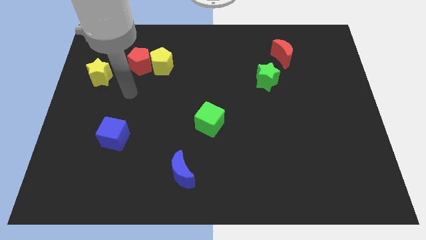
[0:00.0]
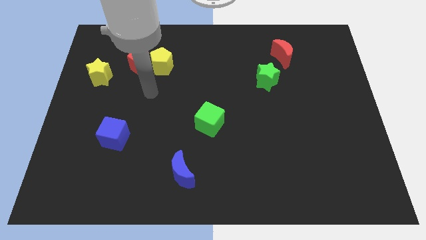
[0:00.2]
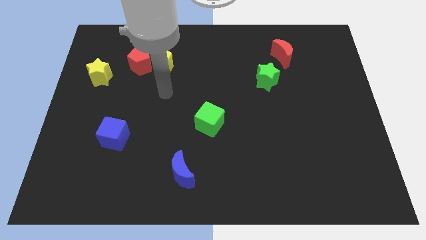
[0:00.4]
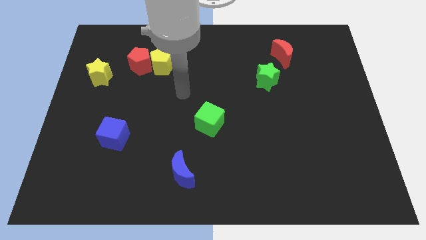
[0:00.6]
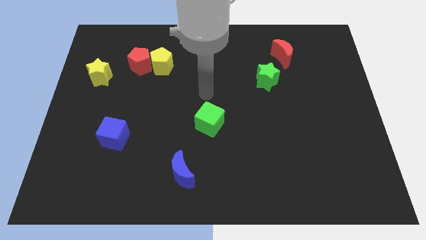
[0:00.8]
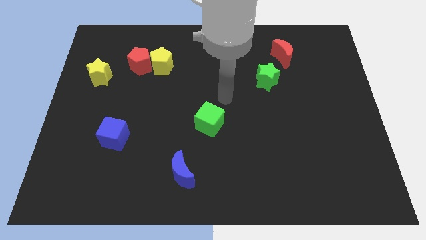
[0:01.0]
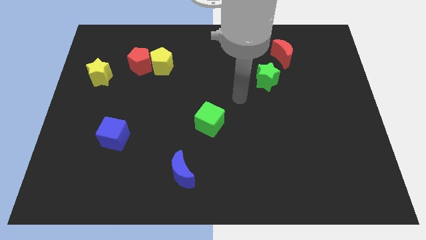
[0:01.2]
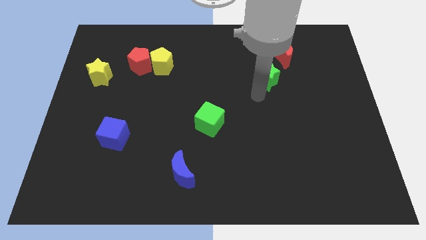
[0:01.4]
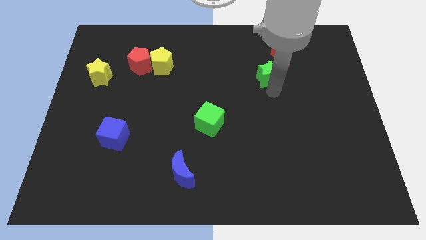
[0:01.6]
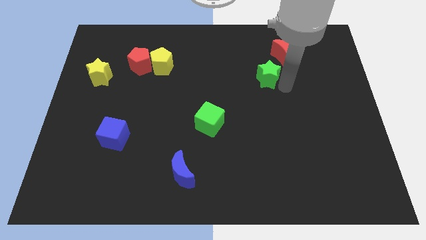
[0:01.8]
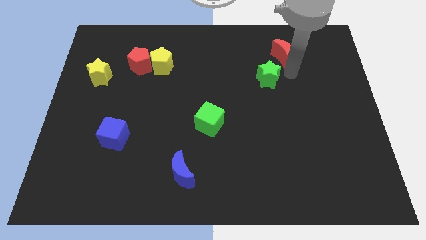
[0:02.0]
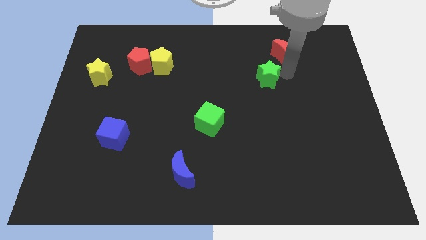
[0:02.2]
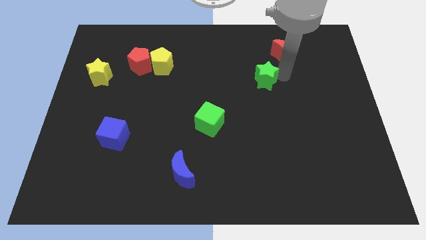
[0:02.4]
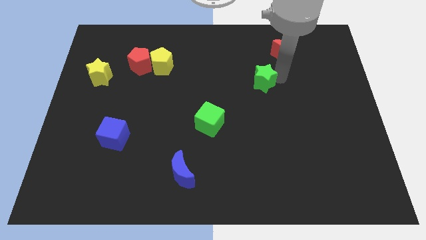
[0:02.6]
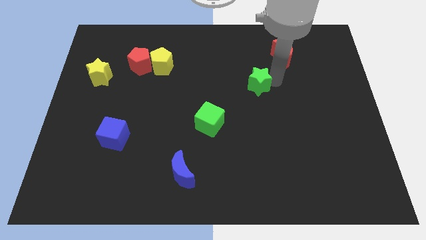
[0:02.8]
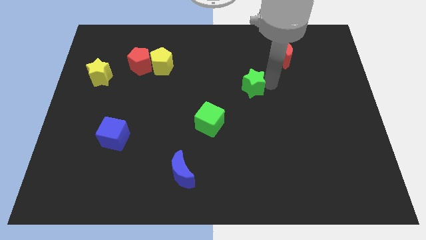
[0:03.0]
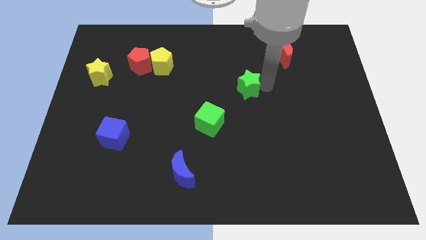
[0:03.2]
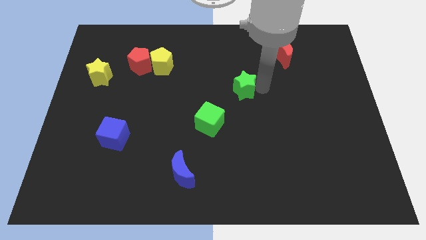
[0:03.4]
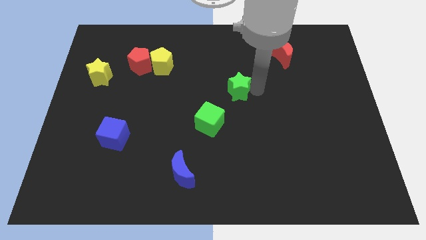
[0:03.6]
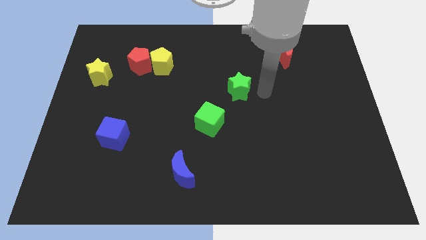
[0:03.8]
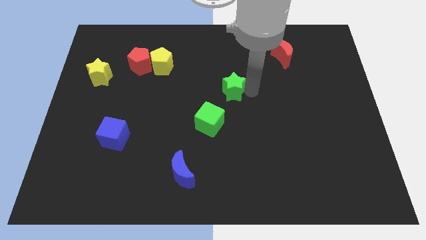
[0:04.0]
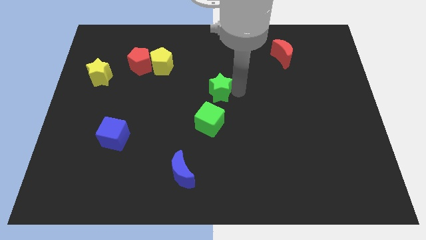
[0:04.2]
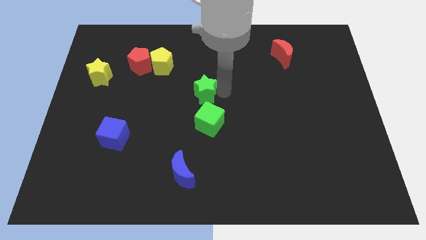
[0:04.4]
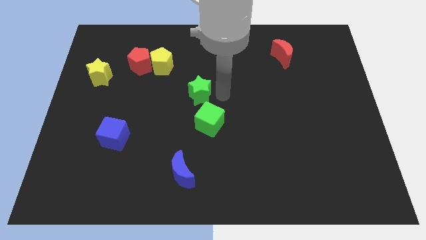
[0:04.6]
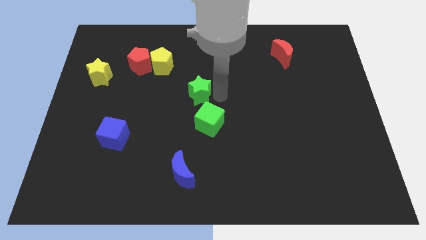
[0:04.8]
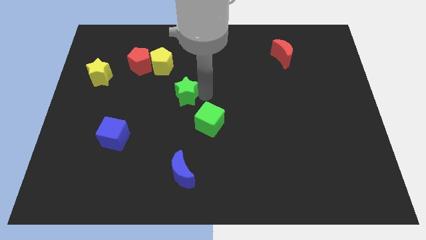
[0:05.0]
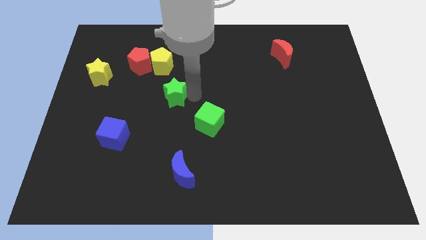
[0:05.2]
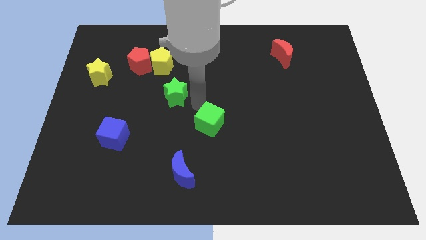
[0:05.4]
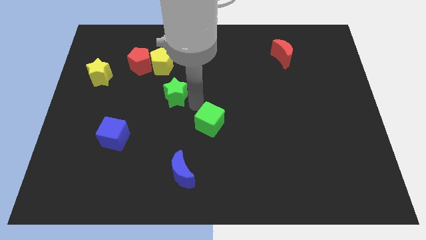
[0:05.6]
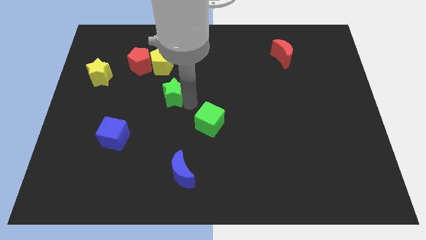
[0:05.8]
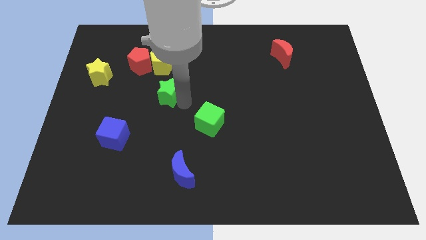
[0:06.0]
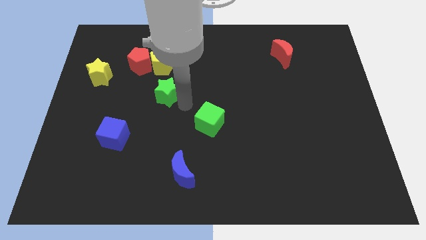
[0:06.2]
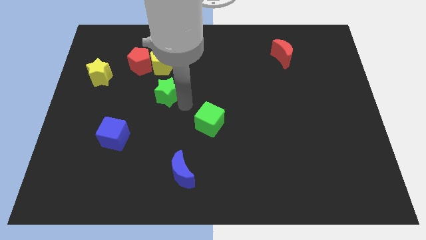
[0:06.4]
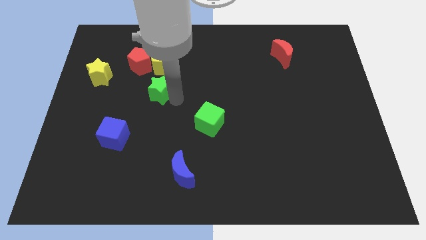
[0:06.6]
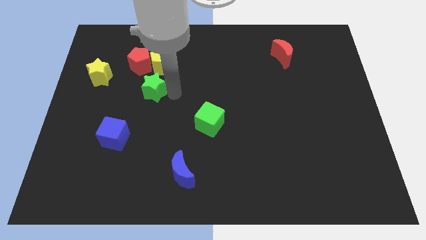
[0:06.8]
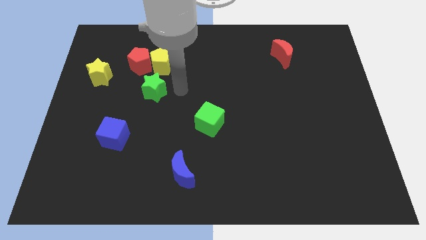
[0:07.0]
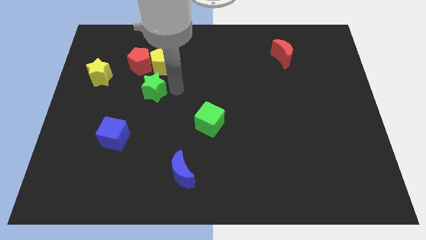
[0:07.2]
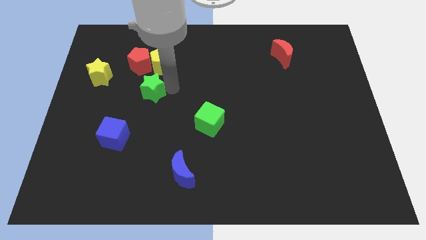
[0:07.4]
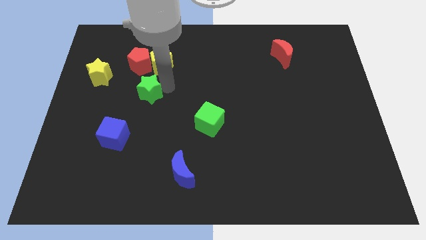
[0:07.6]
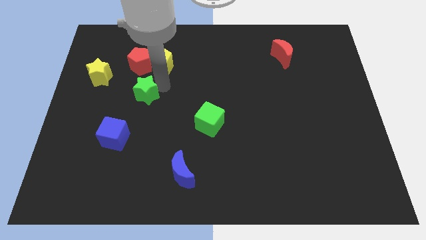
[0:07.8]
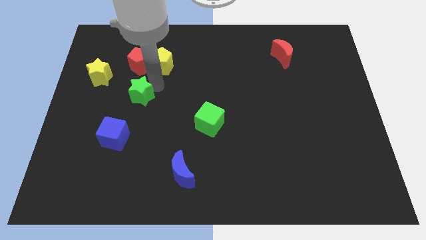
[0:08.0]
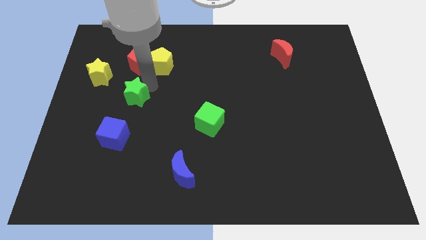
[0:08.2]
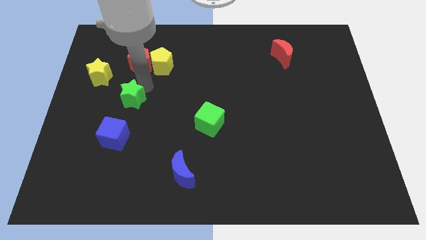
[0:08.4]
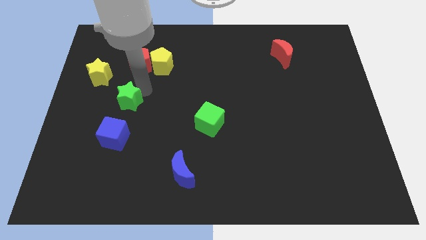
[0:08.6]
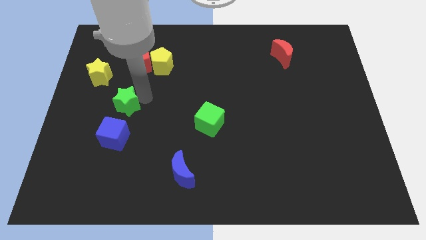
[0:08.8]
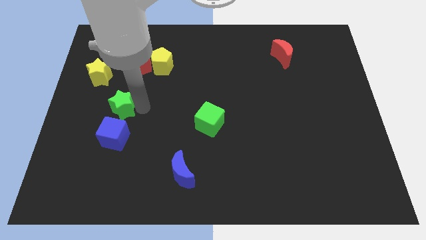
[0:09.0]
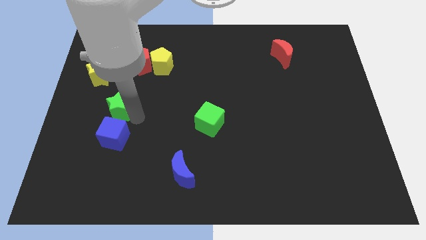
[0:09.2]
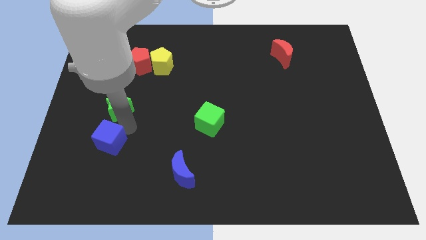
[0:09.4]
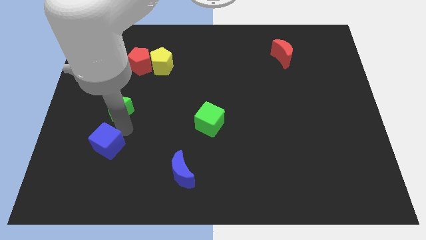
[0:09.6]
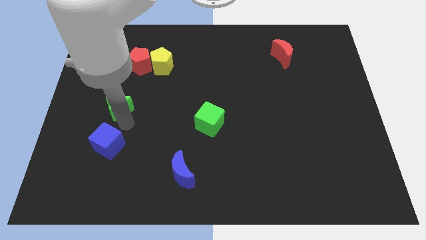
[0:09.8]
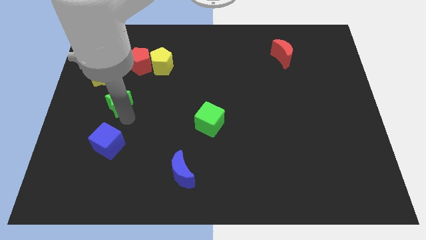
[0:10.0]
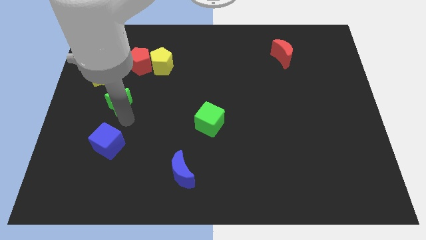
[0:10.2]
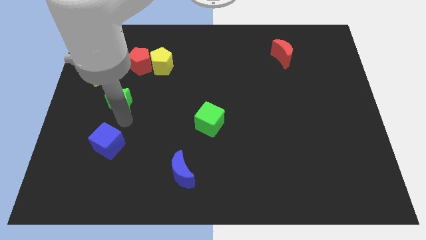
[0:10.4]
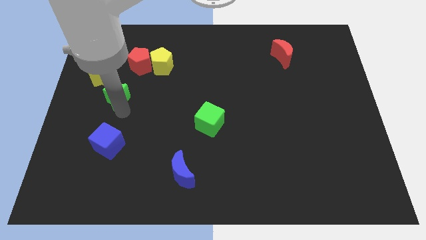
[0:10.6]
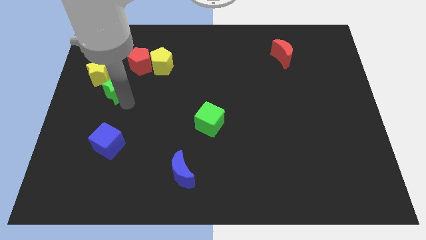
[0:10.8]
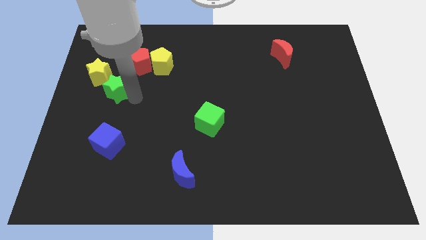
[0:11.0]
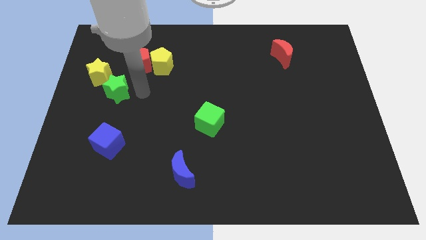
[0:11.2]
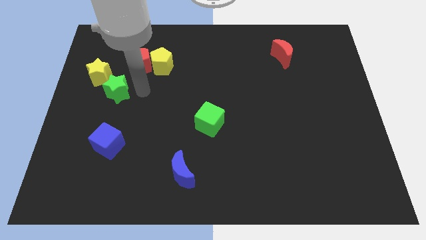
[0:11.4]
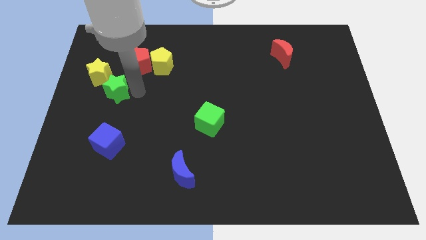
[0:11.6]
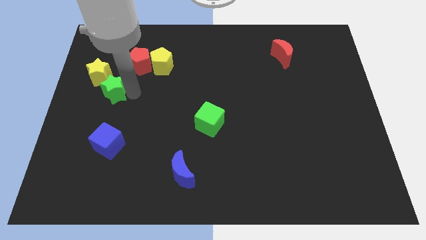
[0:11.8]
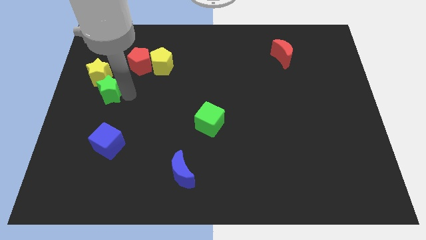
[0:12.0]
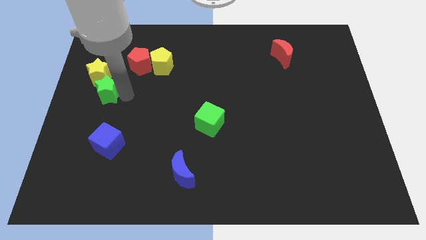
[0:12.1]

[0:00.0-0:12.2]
slide the green star to the left side of the board
